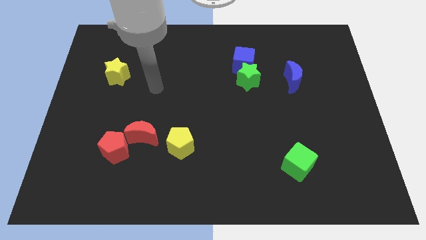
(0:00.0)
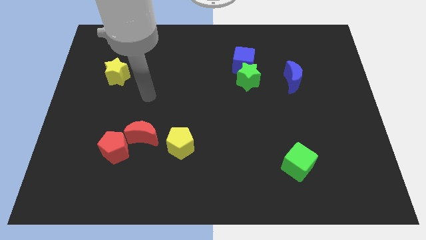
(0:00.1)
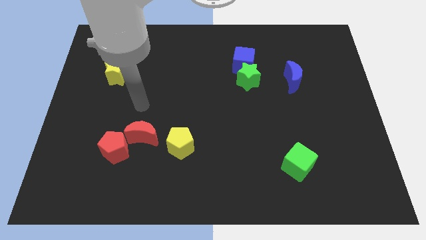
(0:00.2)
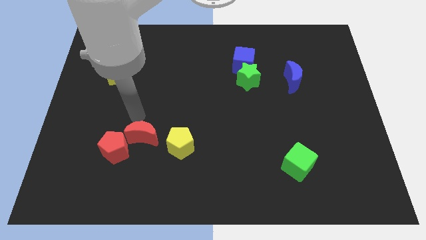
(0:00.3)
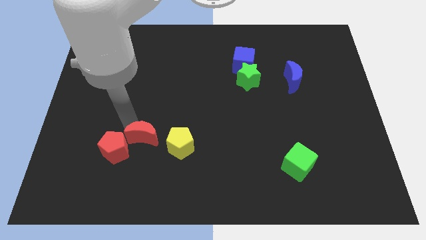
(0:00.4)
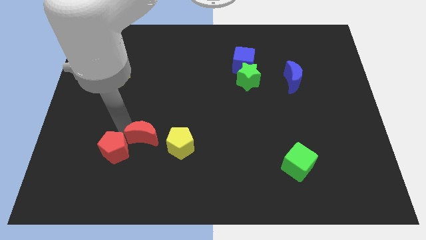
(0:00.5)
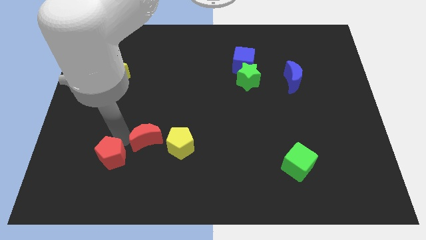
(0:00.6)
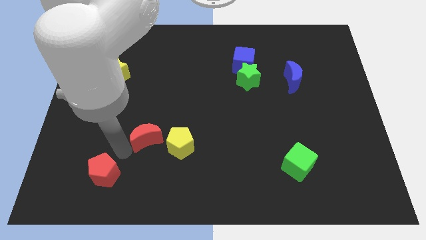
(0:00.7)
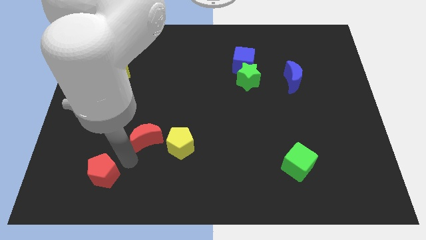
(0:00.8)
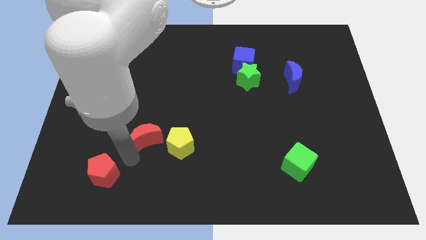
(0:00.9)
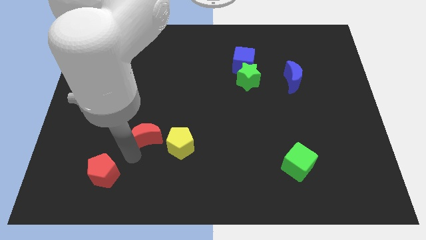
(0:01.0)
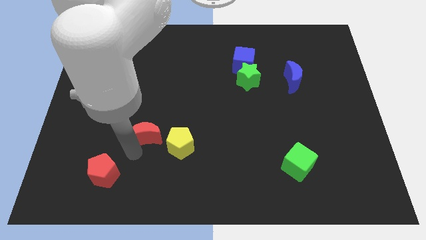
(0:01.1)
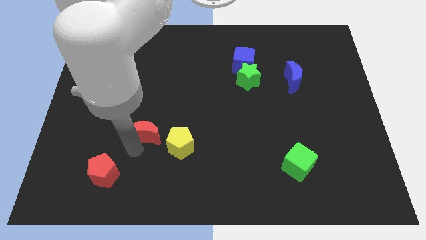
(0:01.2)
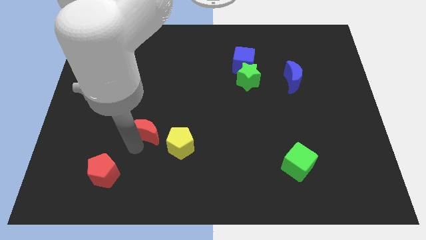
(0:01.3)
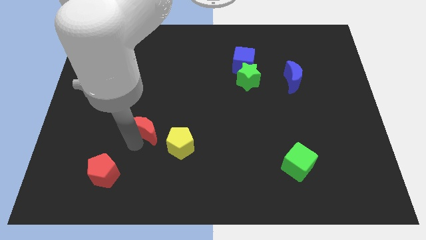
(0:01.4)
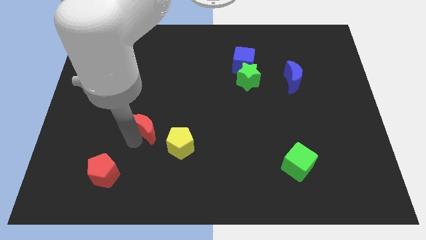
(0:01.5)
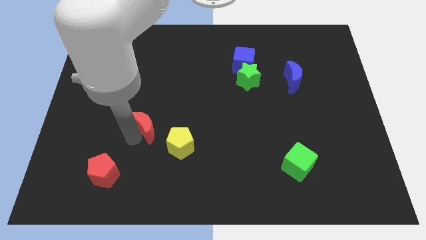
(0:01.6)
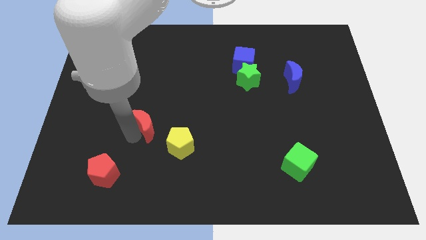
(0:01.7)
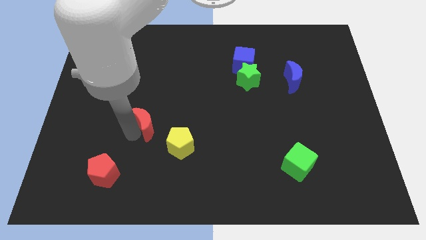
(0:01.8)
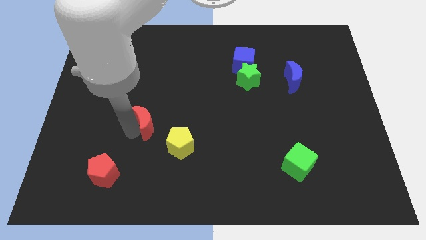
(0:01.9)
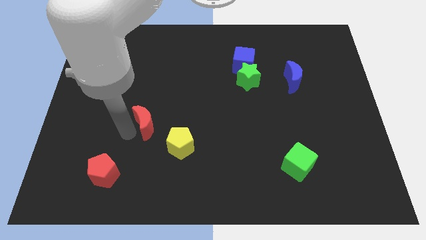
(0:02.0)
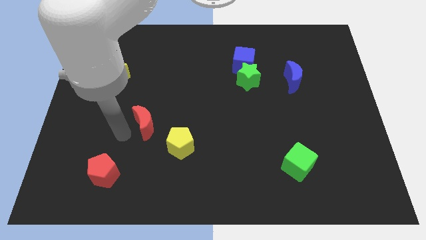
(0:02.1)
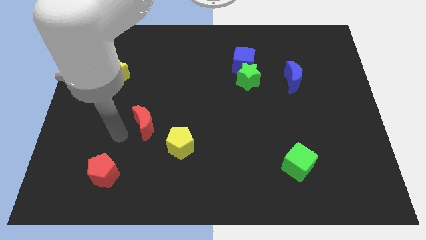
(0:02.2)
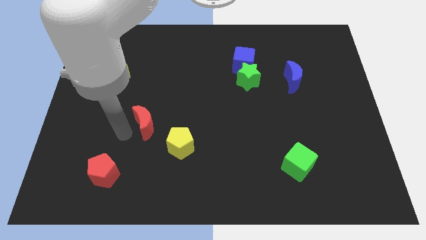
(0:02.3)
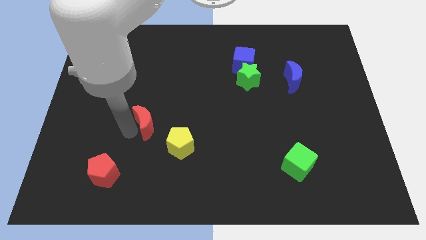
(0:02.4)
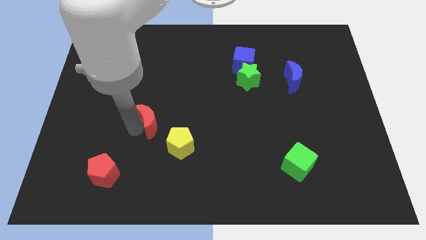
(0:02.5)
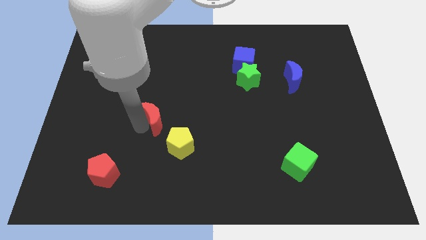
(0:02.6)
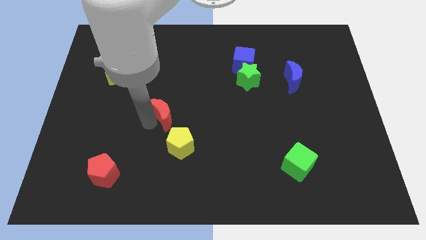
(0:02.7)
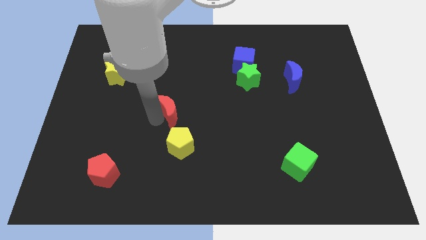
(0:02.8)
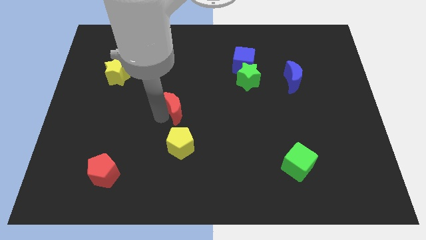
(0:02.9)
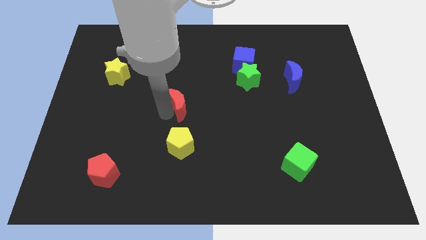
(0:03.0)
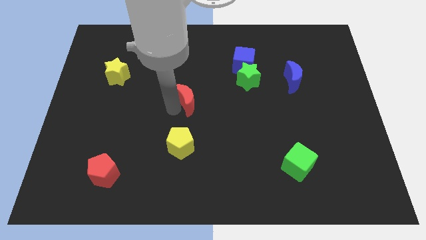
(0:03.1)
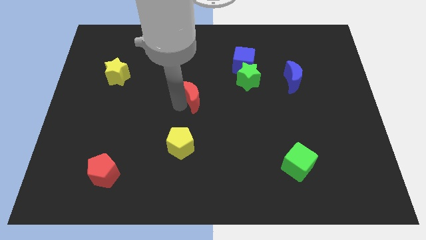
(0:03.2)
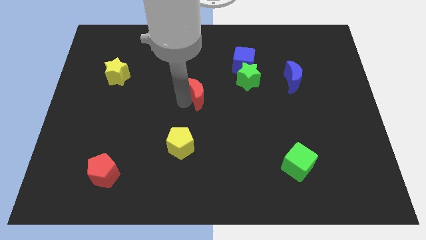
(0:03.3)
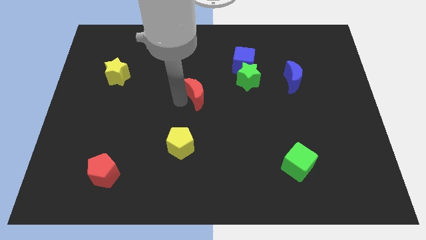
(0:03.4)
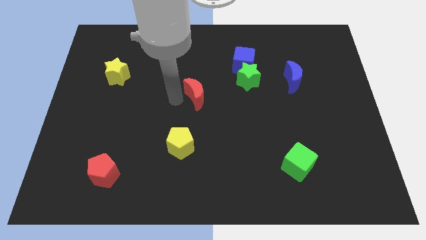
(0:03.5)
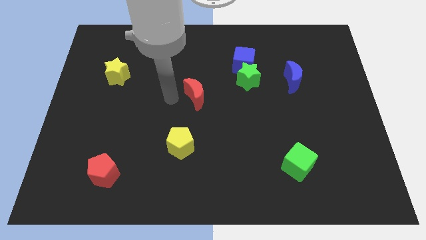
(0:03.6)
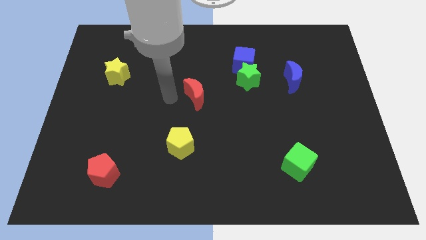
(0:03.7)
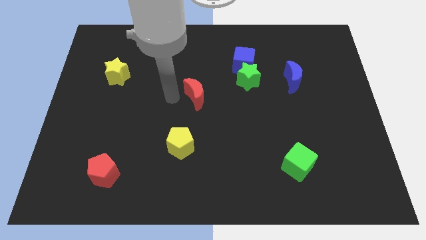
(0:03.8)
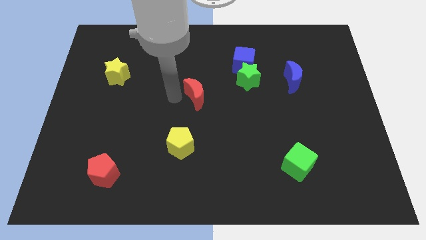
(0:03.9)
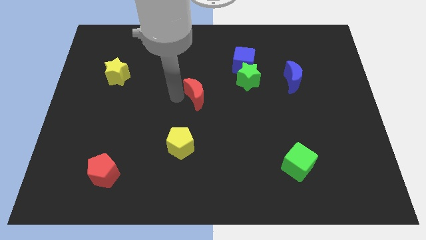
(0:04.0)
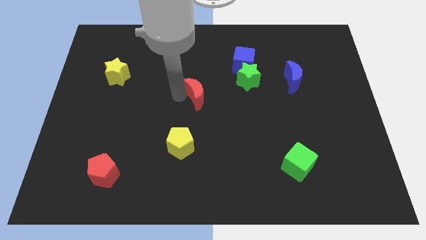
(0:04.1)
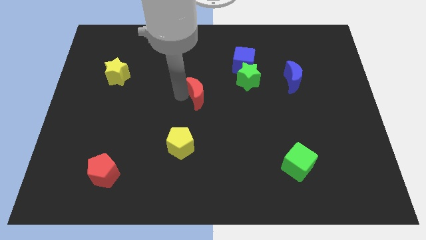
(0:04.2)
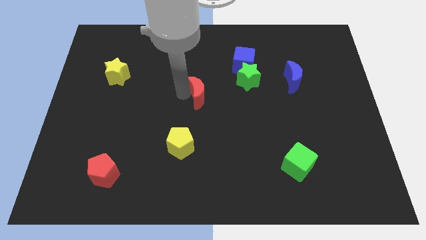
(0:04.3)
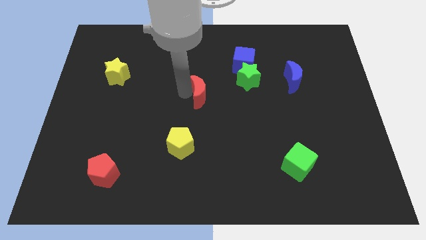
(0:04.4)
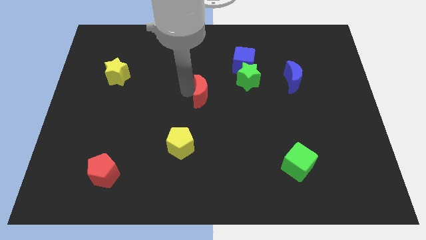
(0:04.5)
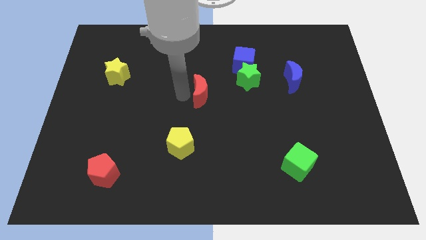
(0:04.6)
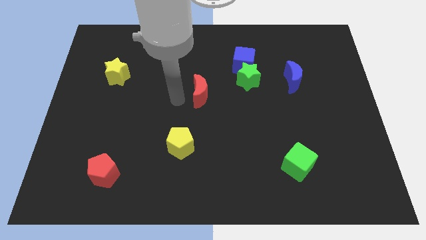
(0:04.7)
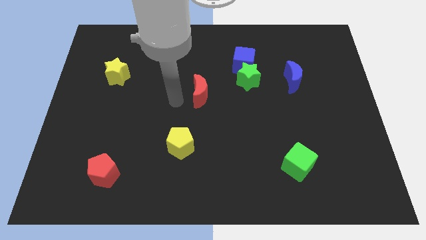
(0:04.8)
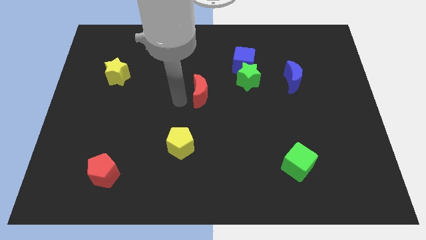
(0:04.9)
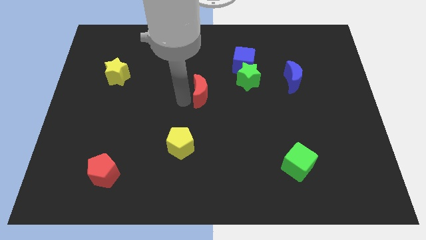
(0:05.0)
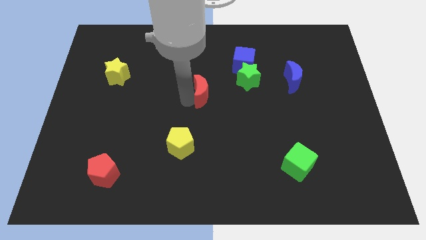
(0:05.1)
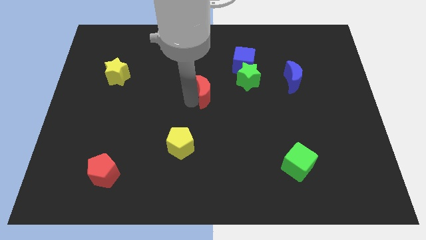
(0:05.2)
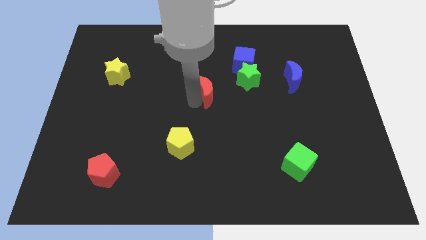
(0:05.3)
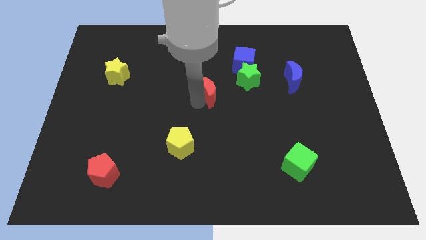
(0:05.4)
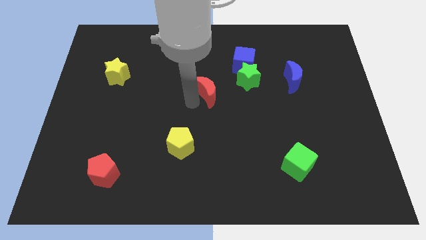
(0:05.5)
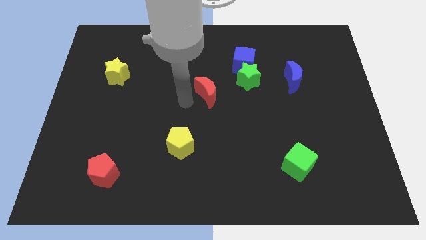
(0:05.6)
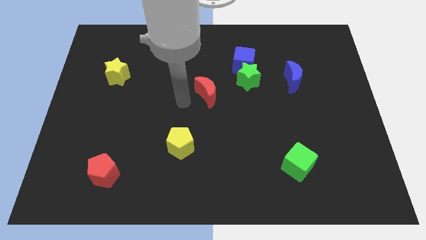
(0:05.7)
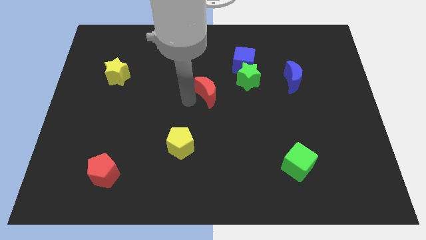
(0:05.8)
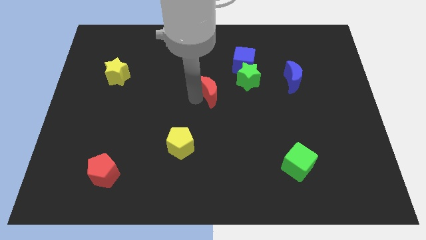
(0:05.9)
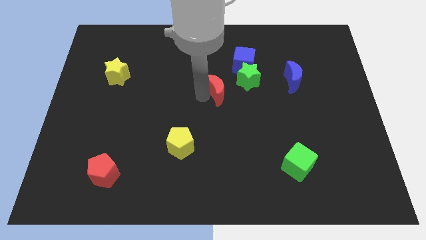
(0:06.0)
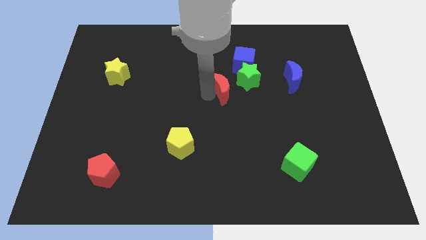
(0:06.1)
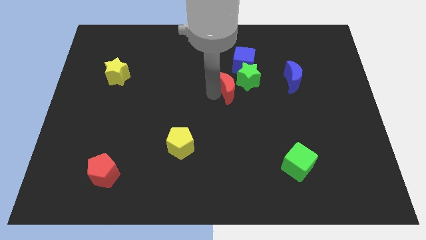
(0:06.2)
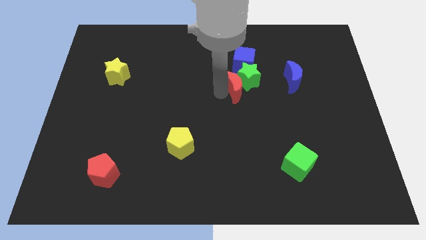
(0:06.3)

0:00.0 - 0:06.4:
put the red moon to the green star
